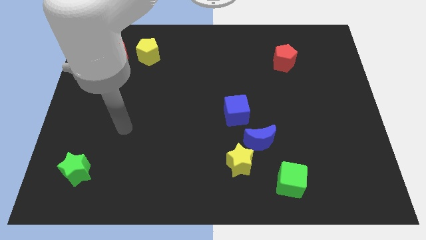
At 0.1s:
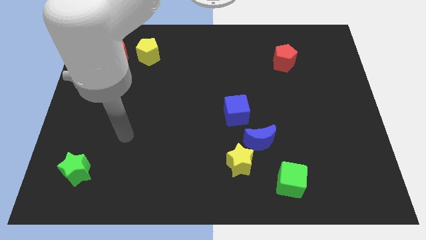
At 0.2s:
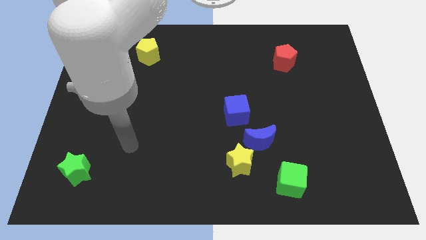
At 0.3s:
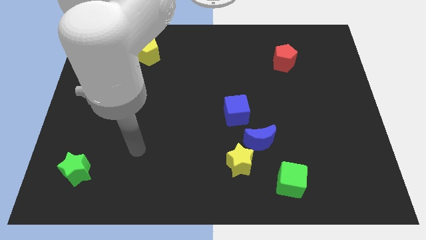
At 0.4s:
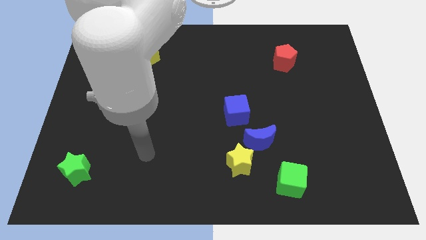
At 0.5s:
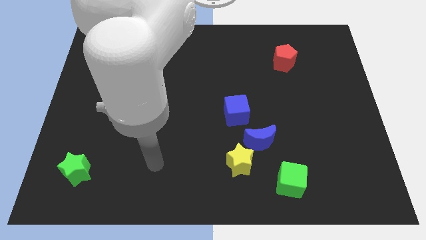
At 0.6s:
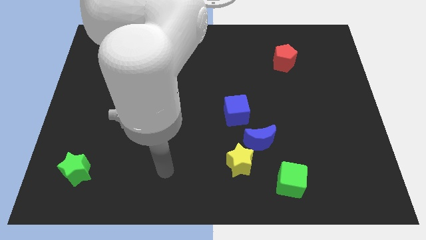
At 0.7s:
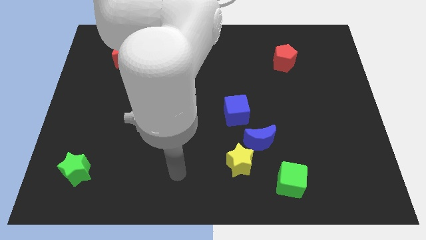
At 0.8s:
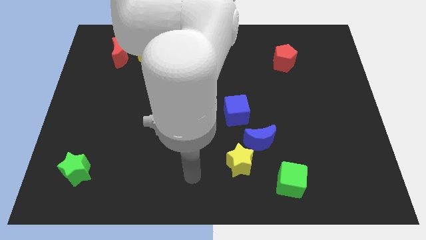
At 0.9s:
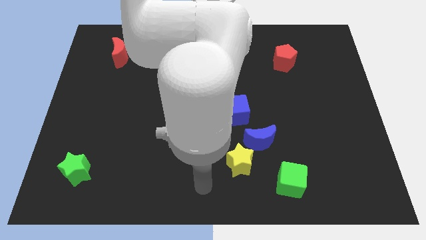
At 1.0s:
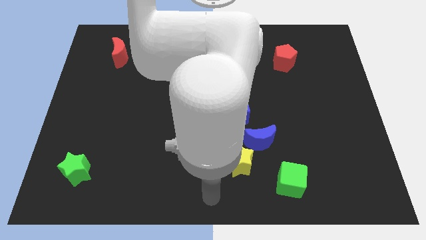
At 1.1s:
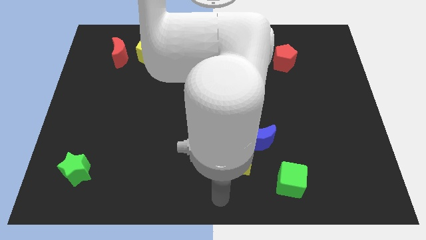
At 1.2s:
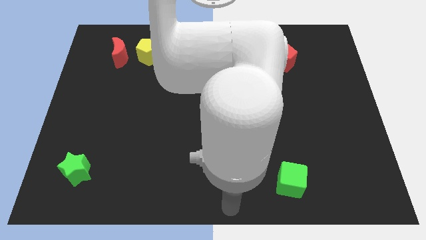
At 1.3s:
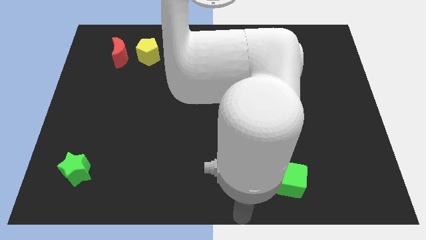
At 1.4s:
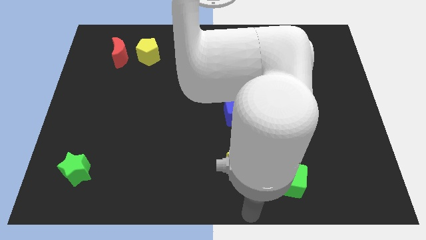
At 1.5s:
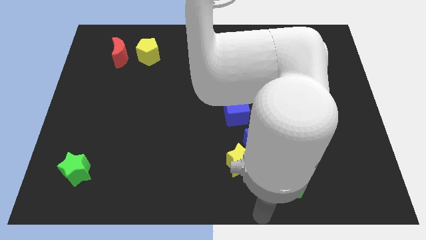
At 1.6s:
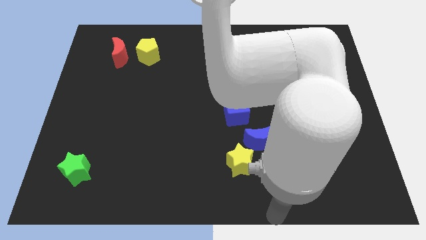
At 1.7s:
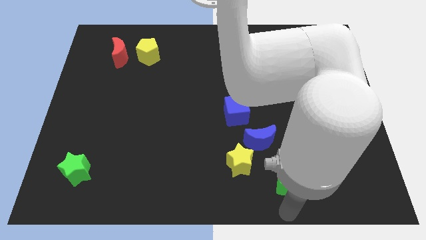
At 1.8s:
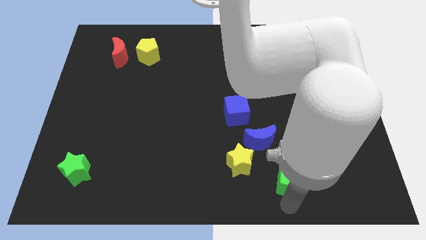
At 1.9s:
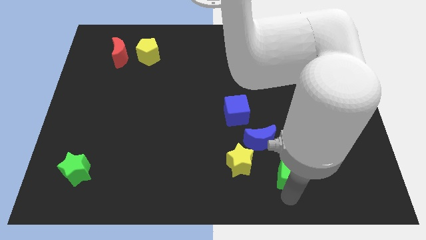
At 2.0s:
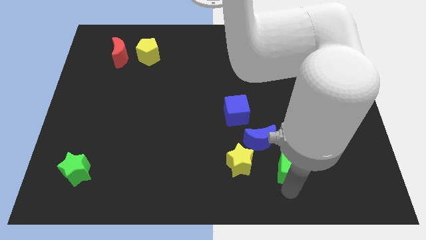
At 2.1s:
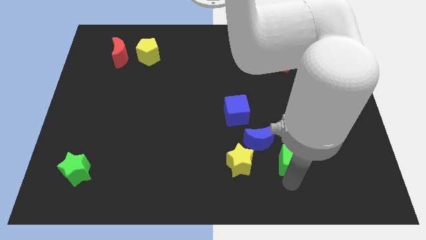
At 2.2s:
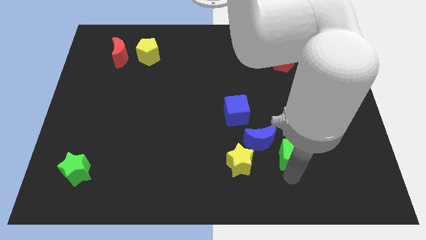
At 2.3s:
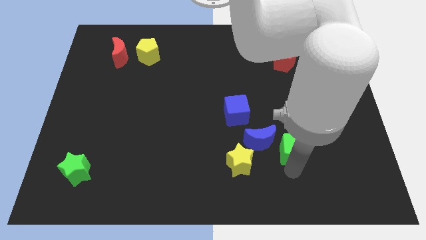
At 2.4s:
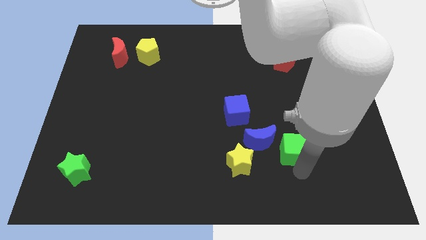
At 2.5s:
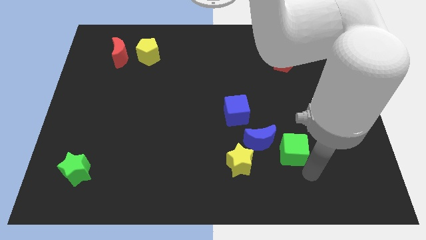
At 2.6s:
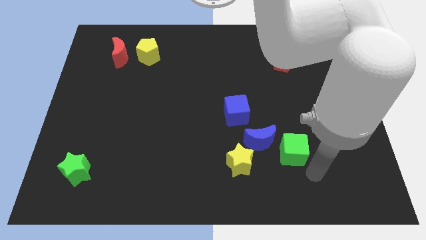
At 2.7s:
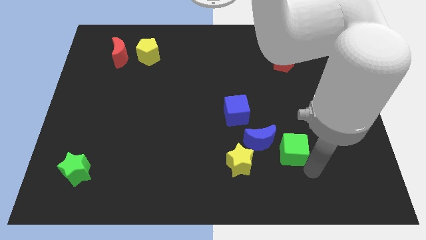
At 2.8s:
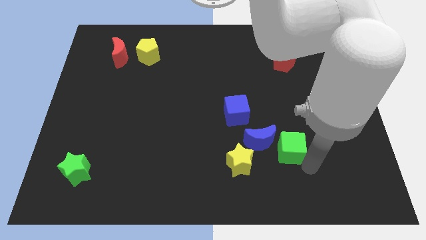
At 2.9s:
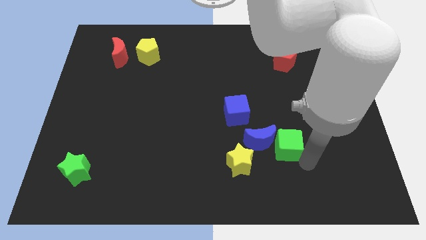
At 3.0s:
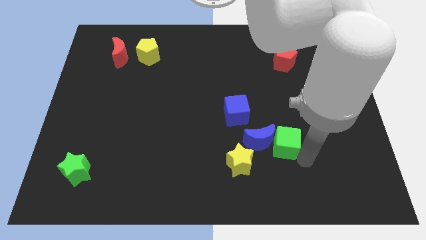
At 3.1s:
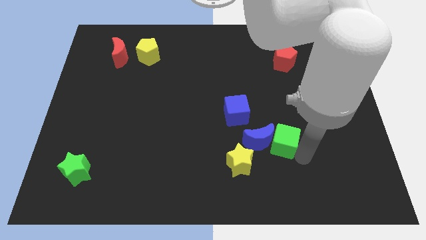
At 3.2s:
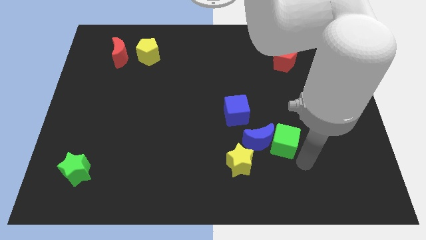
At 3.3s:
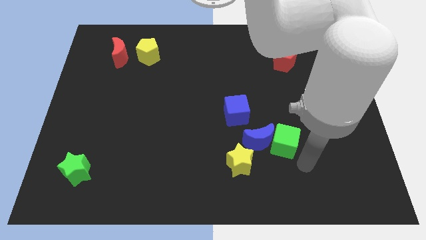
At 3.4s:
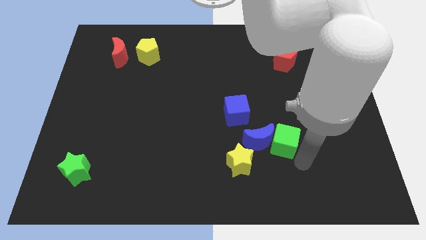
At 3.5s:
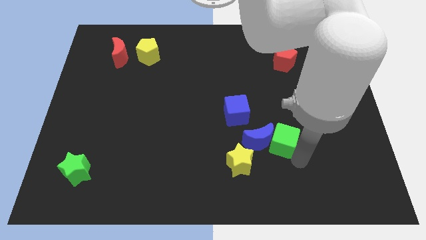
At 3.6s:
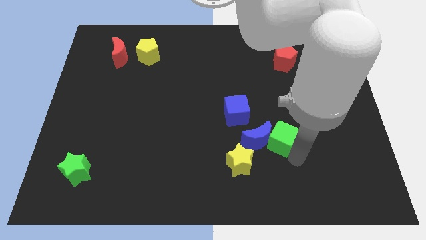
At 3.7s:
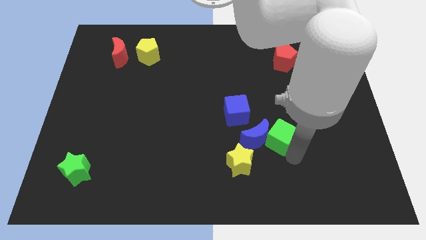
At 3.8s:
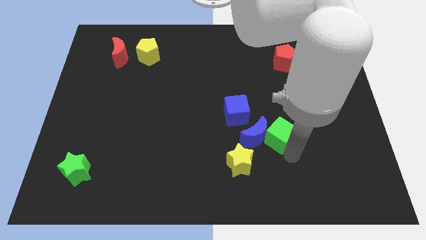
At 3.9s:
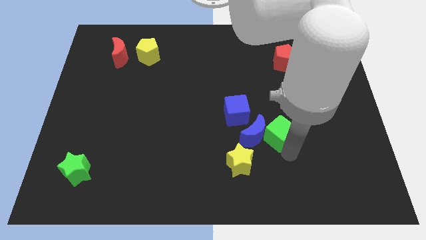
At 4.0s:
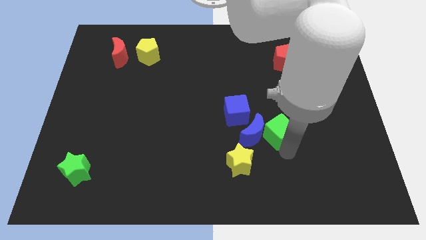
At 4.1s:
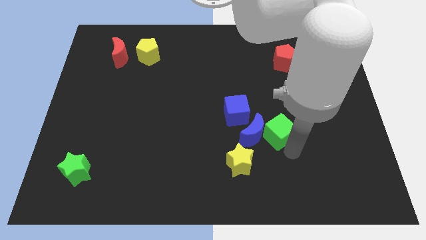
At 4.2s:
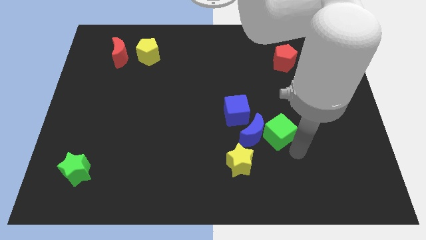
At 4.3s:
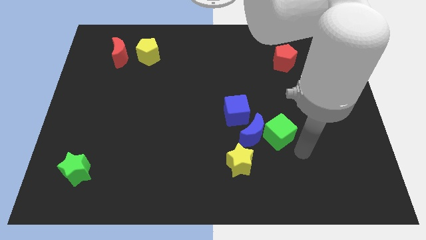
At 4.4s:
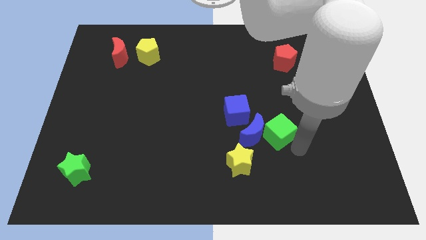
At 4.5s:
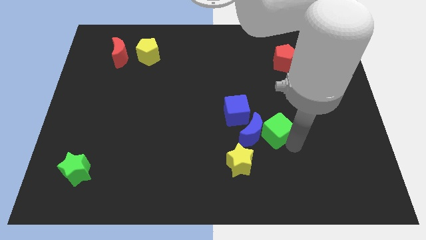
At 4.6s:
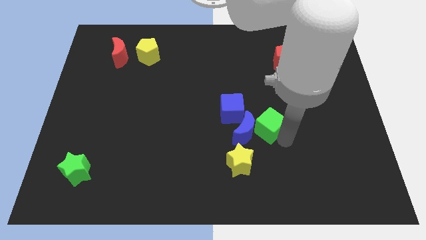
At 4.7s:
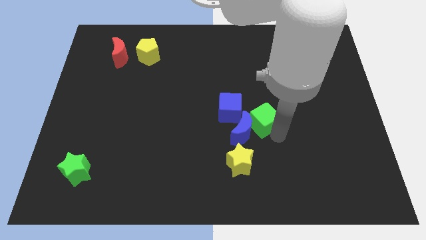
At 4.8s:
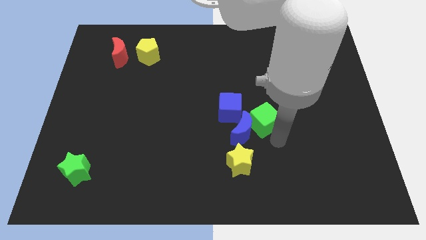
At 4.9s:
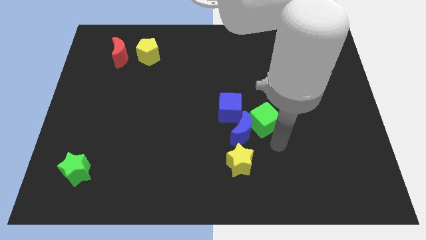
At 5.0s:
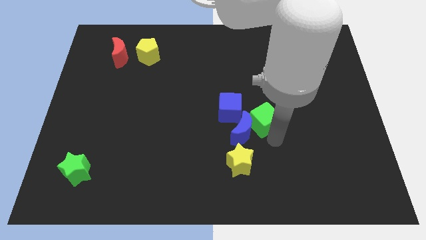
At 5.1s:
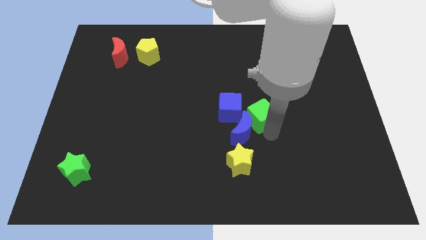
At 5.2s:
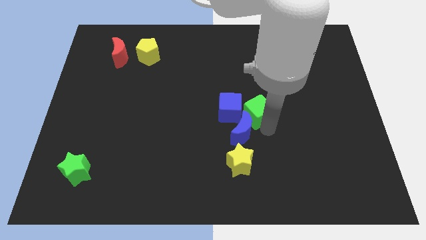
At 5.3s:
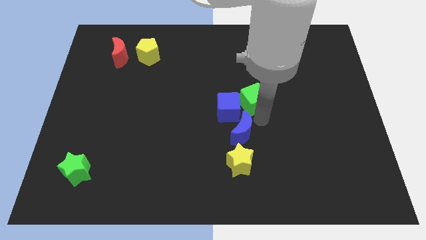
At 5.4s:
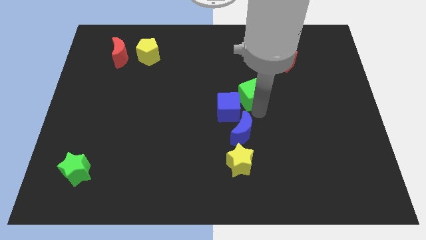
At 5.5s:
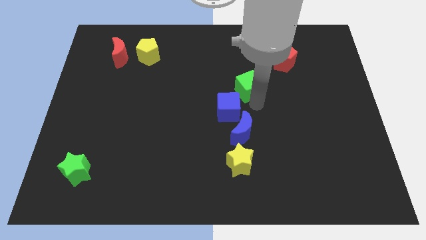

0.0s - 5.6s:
put the green cube to the top side of the blue cube

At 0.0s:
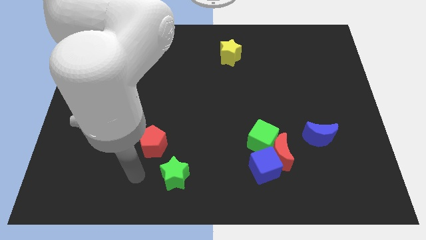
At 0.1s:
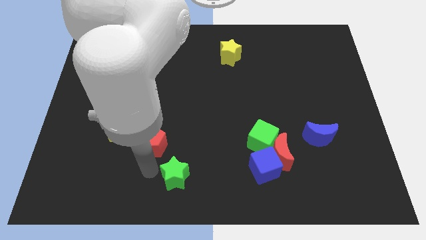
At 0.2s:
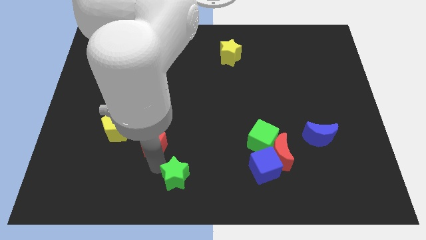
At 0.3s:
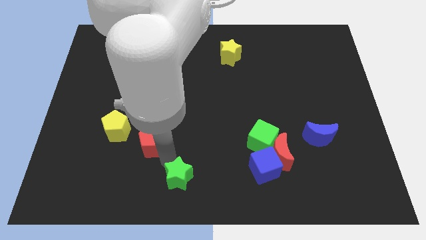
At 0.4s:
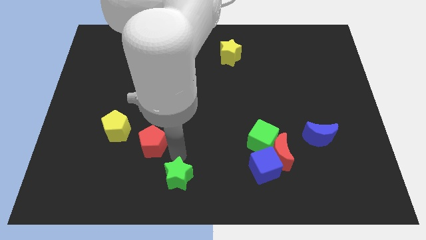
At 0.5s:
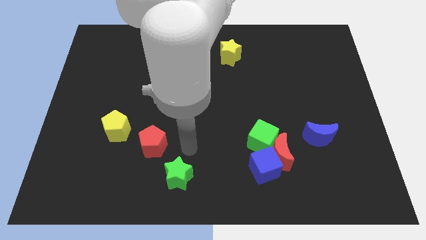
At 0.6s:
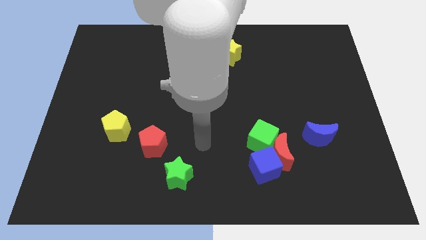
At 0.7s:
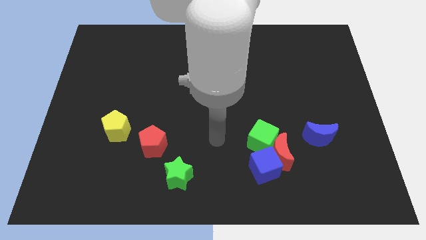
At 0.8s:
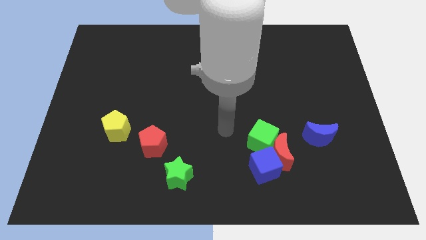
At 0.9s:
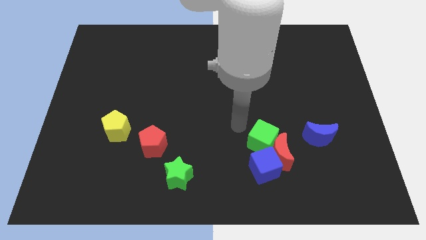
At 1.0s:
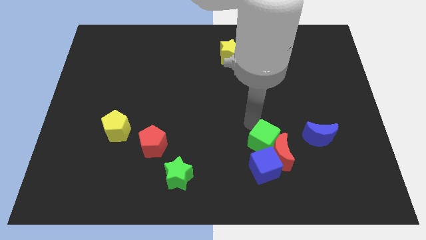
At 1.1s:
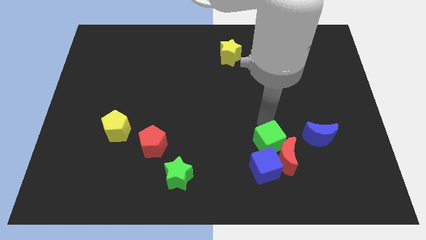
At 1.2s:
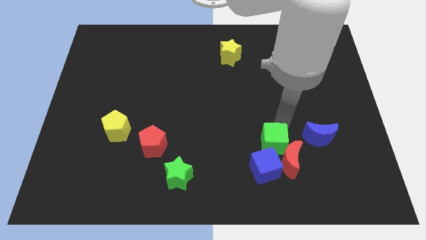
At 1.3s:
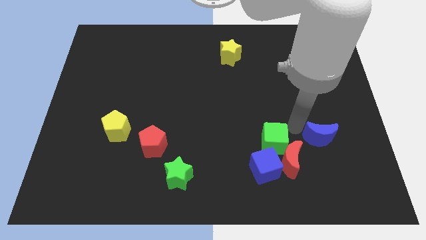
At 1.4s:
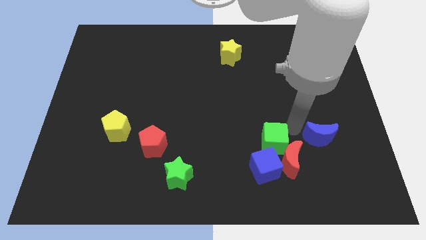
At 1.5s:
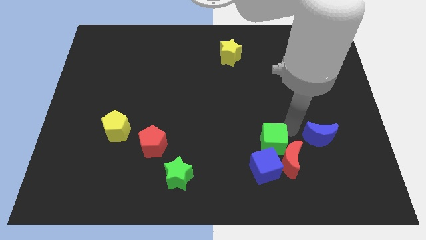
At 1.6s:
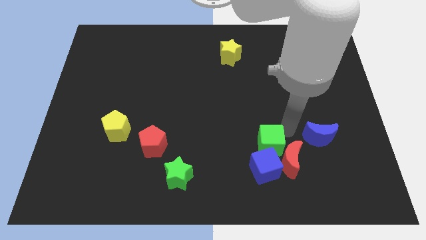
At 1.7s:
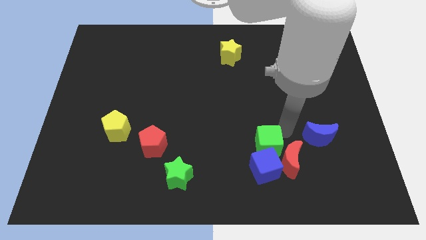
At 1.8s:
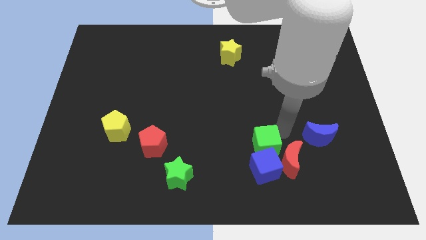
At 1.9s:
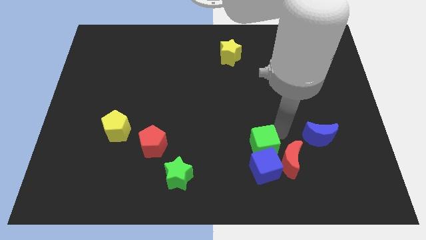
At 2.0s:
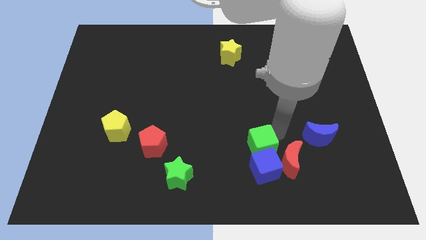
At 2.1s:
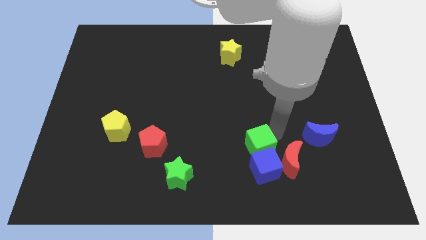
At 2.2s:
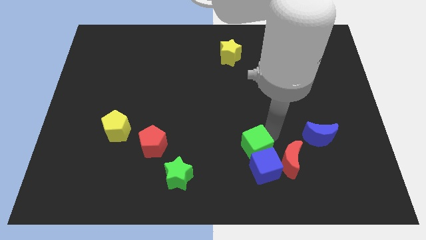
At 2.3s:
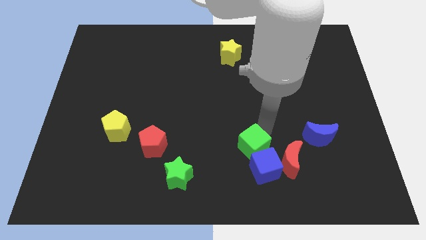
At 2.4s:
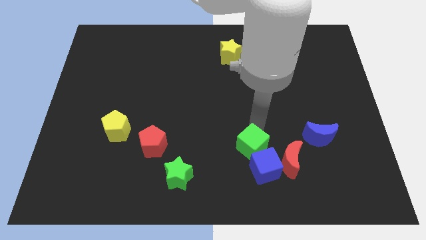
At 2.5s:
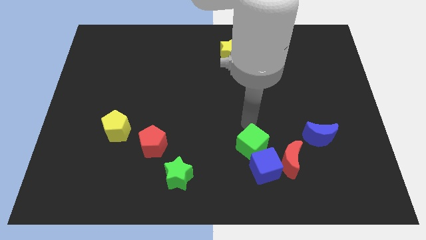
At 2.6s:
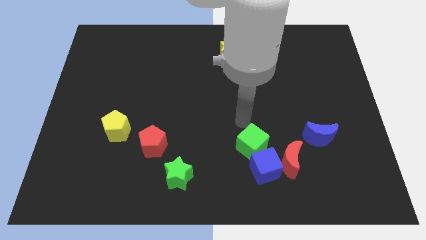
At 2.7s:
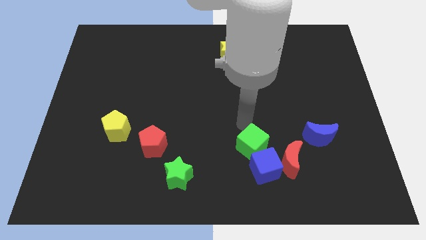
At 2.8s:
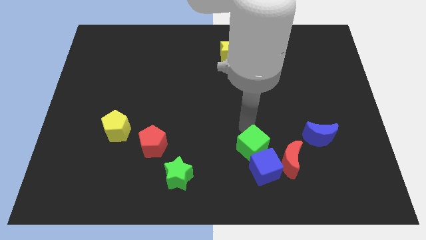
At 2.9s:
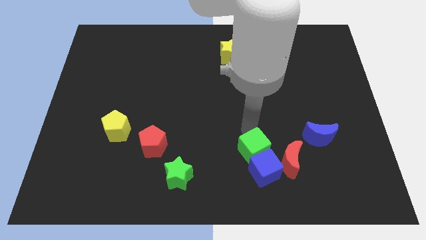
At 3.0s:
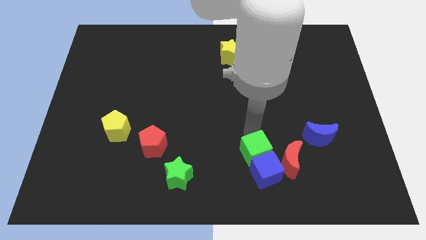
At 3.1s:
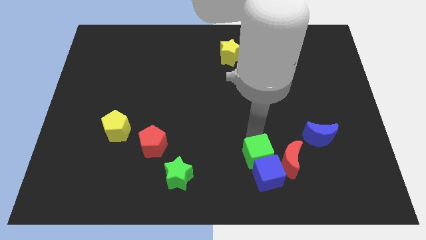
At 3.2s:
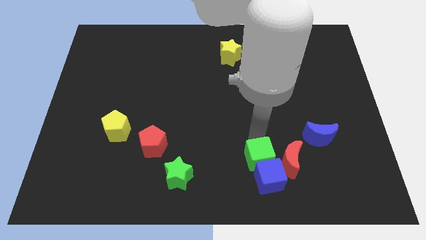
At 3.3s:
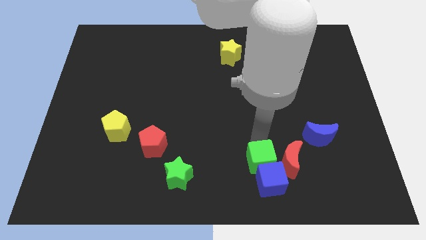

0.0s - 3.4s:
slide the green cube diagonally down and to the left of the red moon
